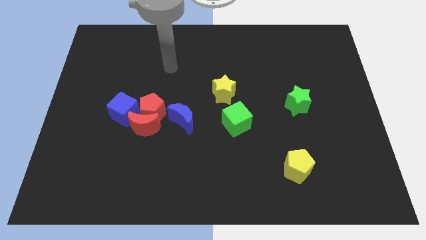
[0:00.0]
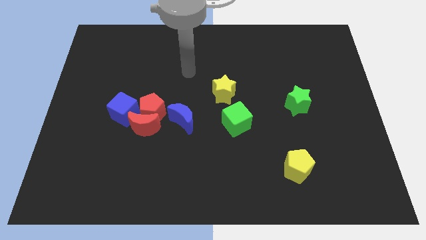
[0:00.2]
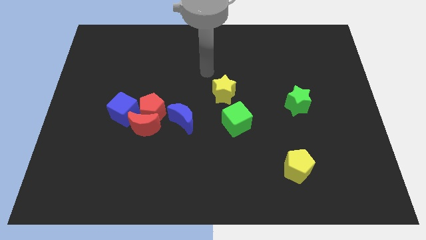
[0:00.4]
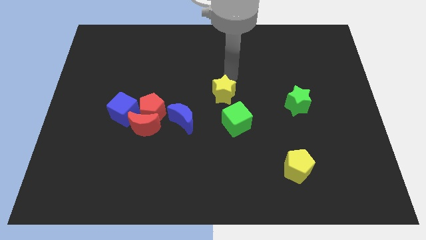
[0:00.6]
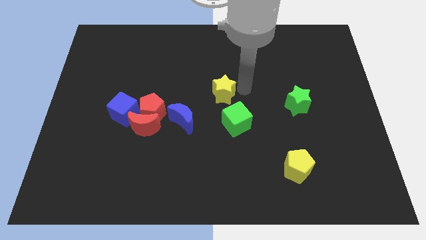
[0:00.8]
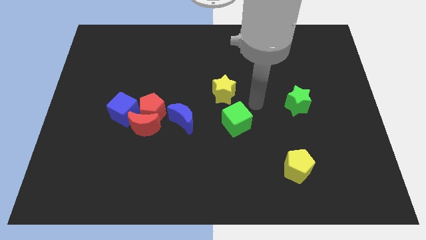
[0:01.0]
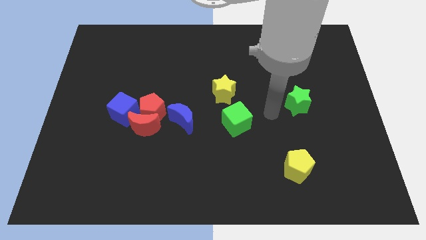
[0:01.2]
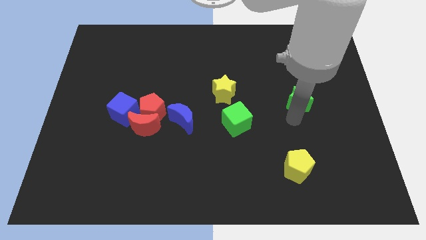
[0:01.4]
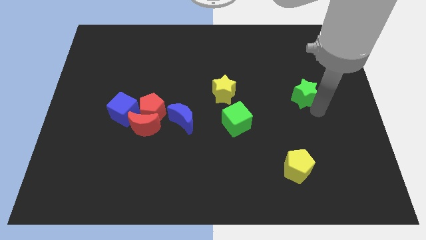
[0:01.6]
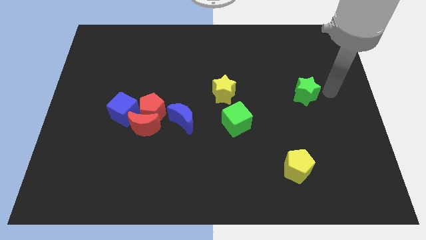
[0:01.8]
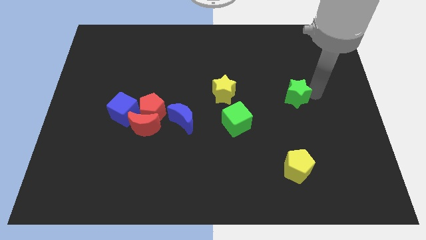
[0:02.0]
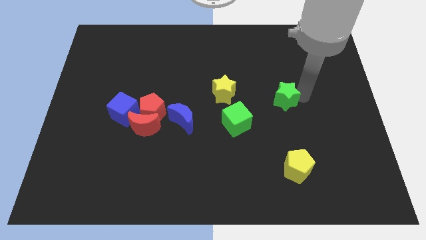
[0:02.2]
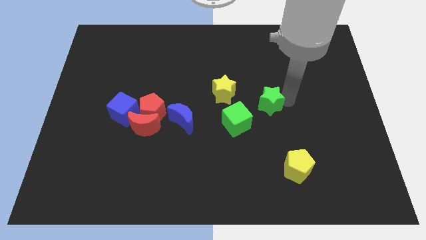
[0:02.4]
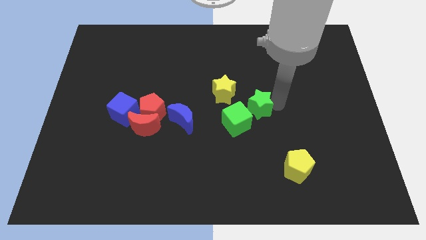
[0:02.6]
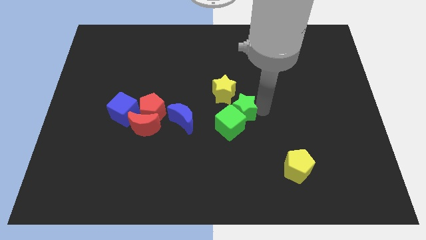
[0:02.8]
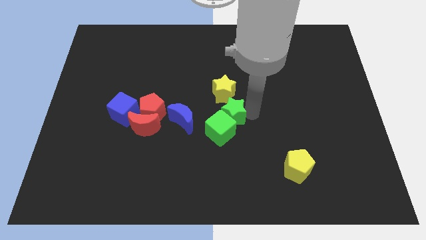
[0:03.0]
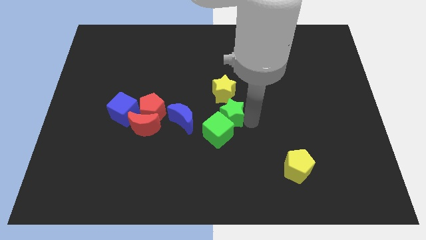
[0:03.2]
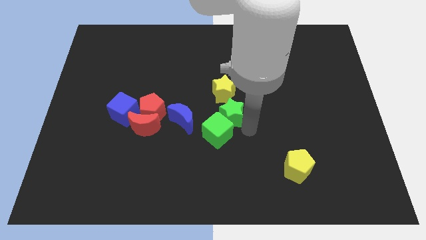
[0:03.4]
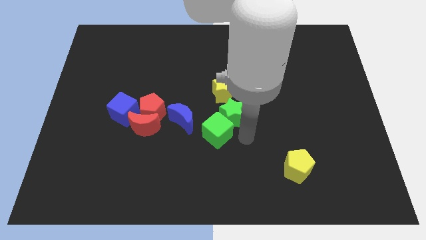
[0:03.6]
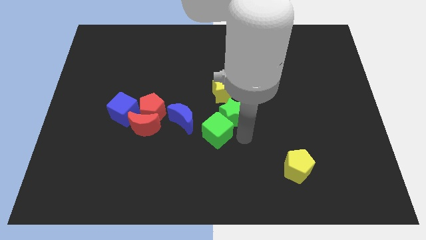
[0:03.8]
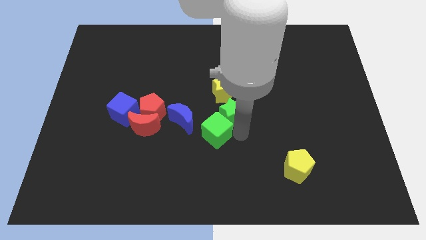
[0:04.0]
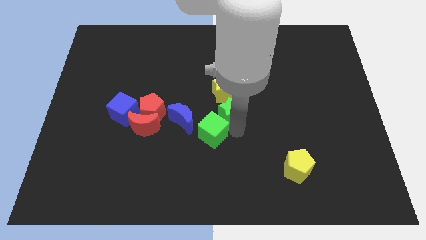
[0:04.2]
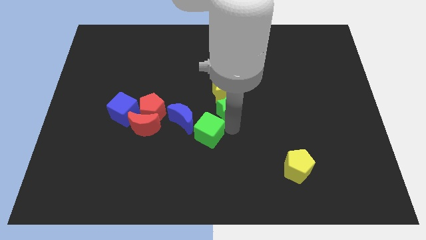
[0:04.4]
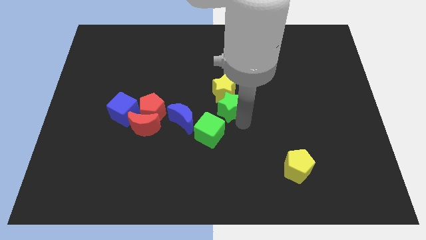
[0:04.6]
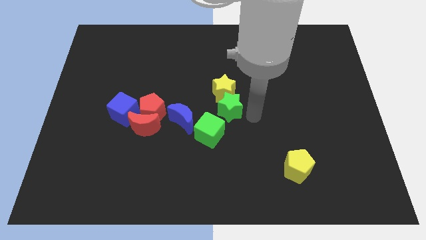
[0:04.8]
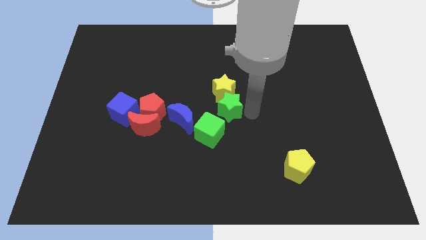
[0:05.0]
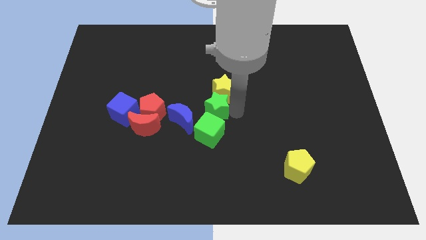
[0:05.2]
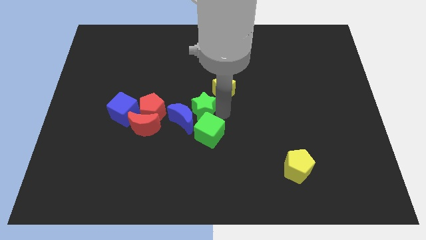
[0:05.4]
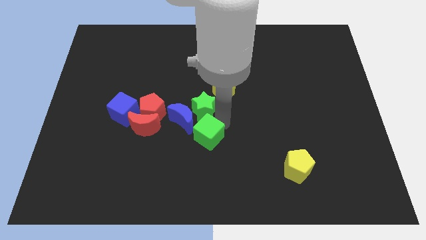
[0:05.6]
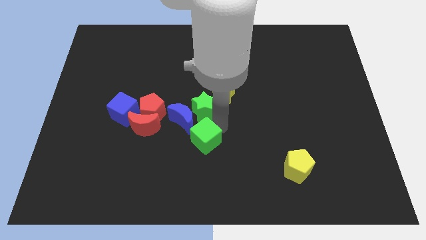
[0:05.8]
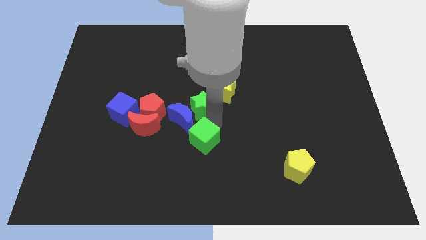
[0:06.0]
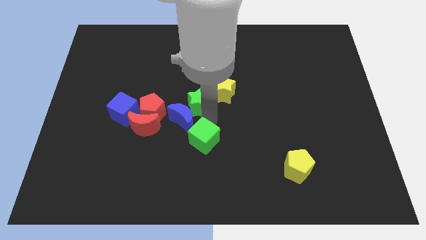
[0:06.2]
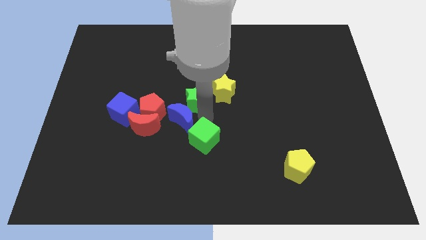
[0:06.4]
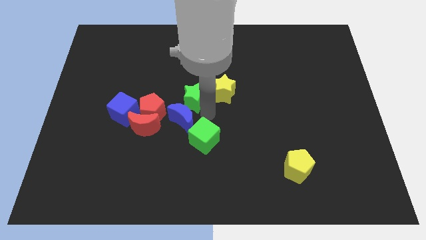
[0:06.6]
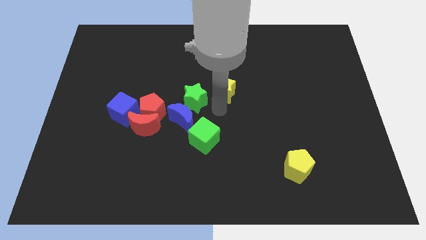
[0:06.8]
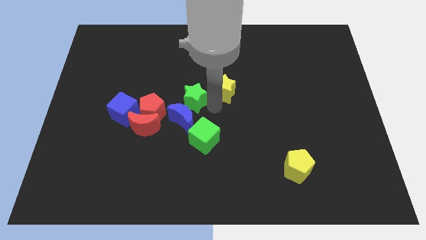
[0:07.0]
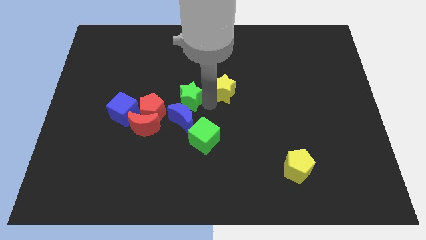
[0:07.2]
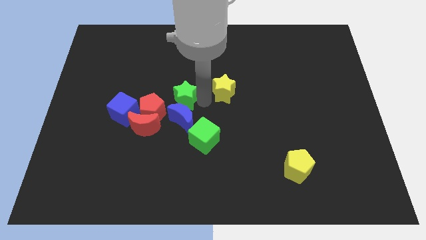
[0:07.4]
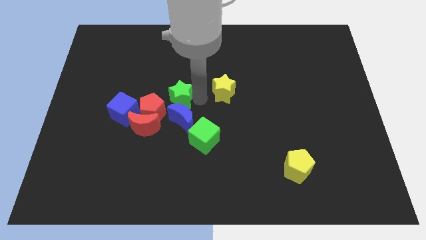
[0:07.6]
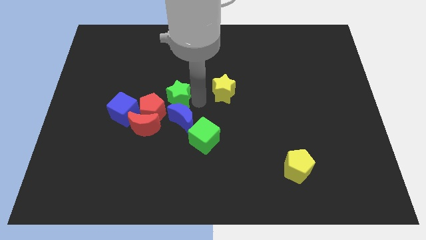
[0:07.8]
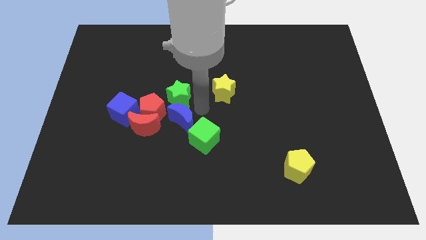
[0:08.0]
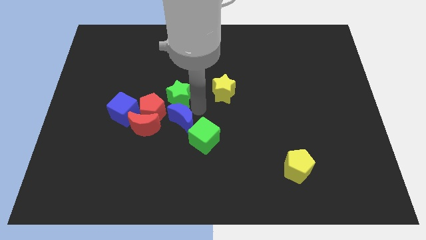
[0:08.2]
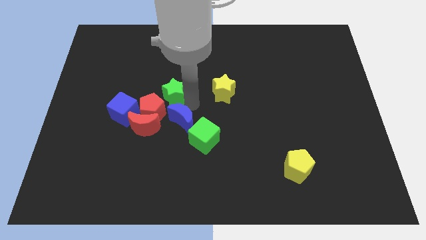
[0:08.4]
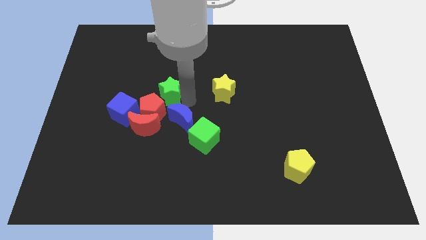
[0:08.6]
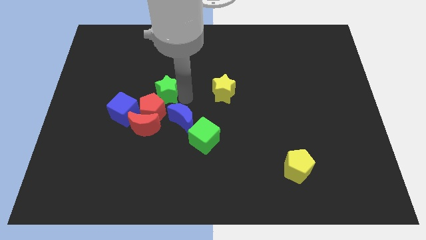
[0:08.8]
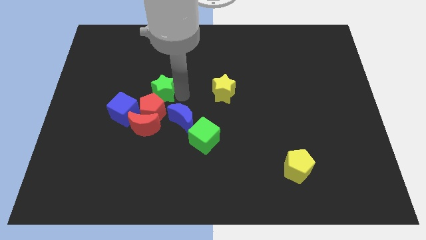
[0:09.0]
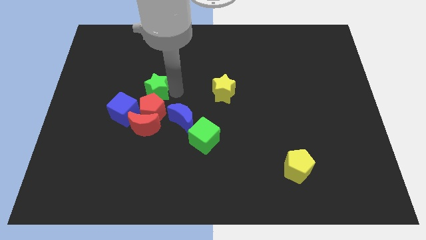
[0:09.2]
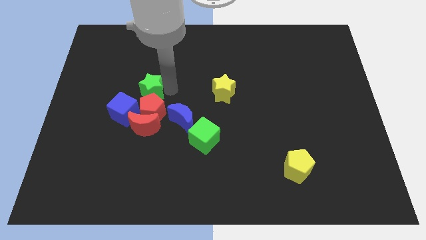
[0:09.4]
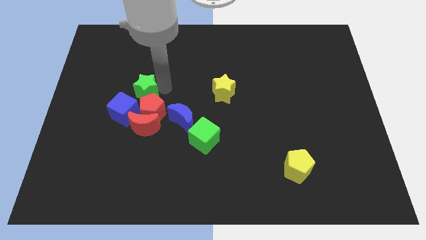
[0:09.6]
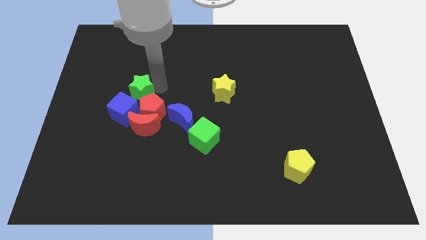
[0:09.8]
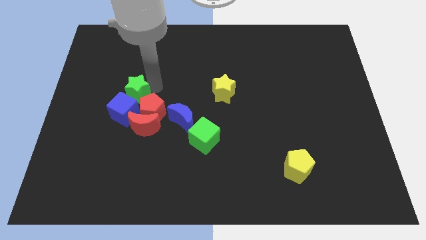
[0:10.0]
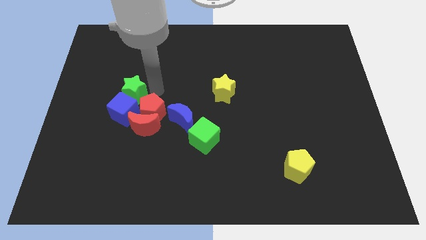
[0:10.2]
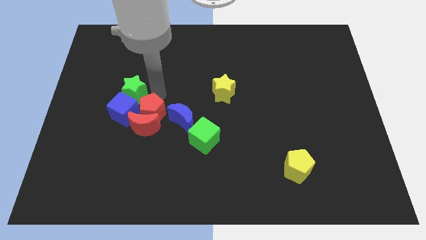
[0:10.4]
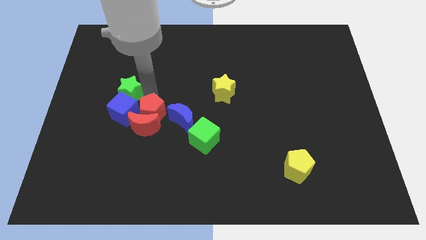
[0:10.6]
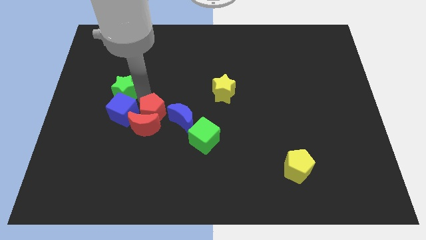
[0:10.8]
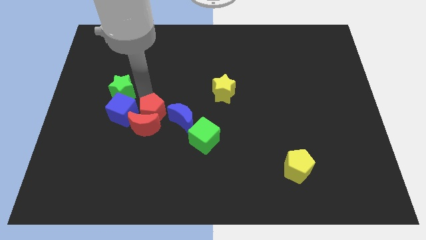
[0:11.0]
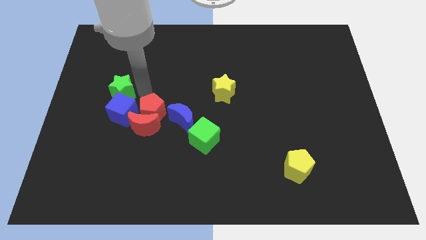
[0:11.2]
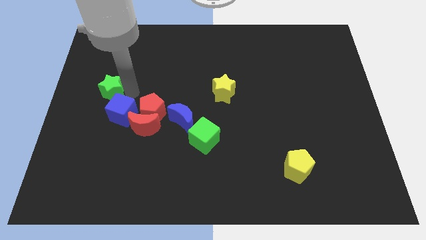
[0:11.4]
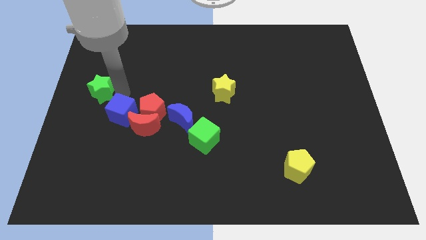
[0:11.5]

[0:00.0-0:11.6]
move the green star to the center left
